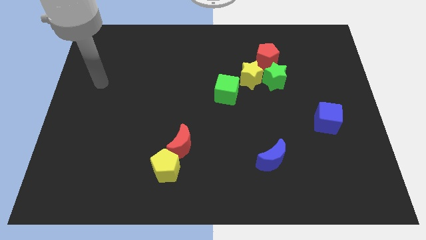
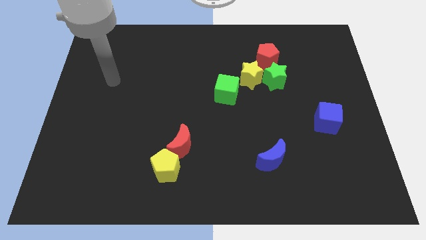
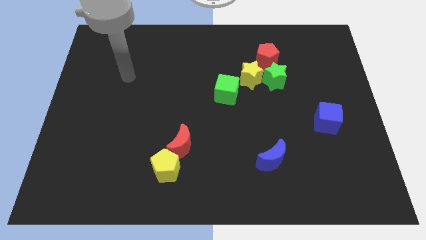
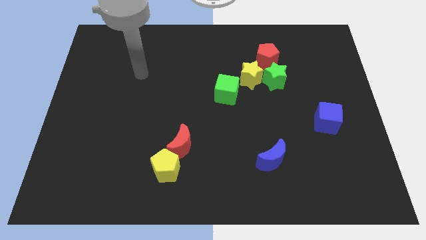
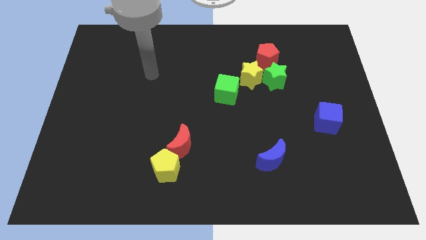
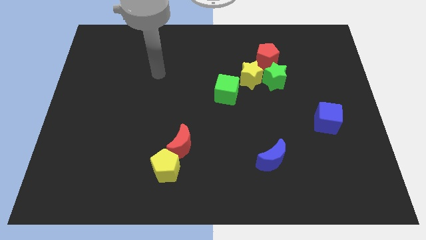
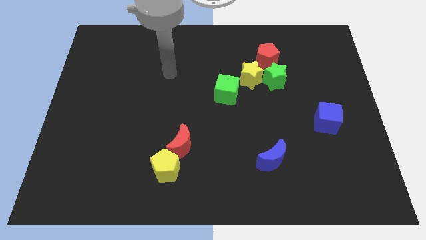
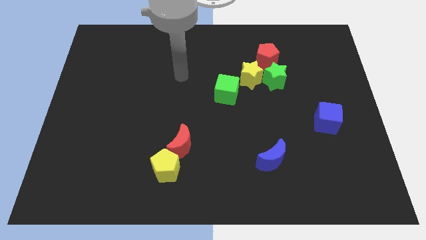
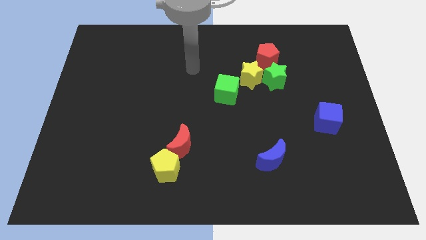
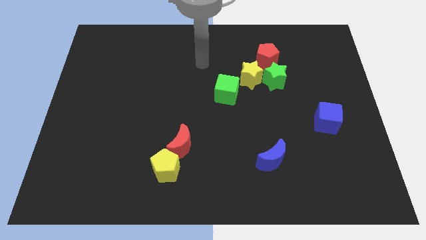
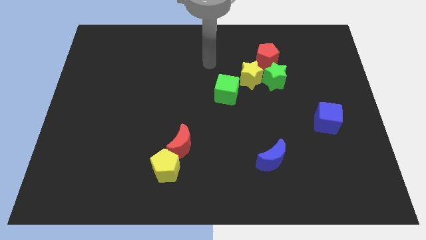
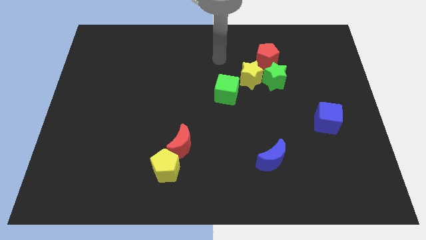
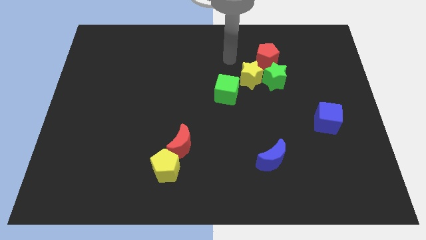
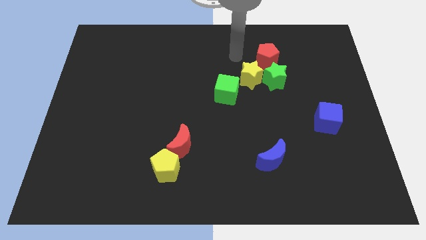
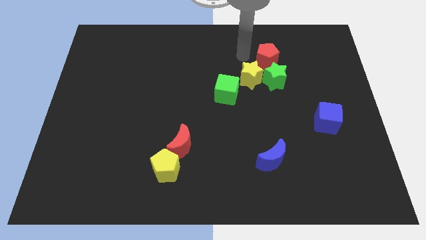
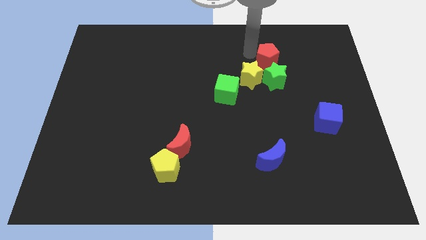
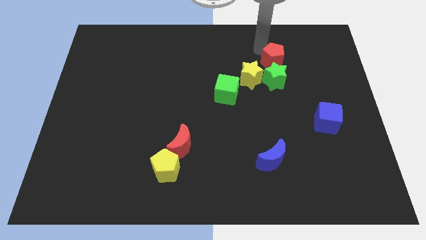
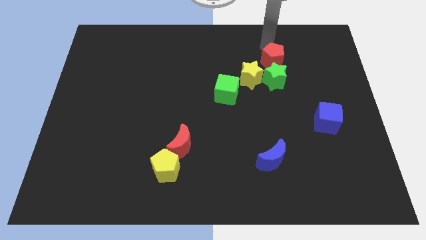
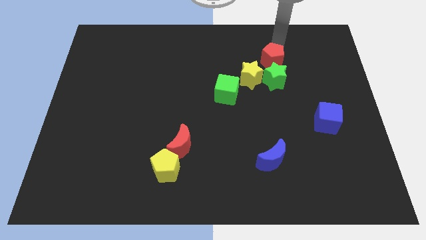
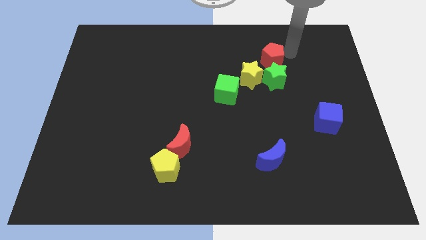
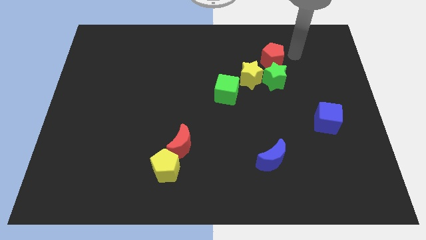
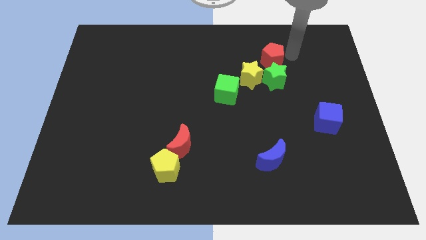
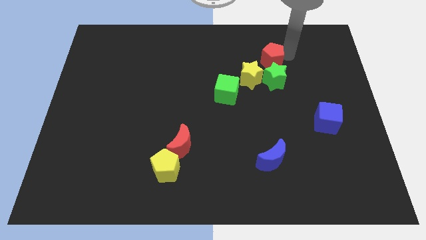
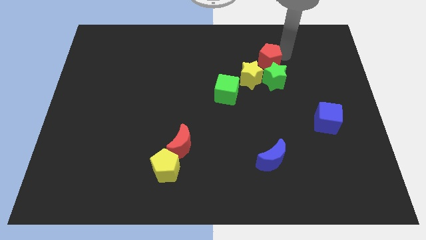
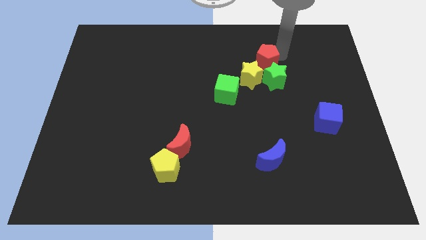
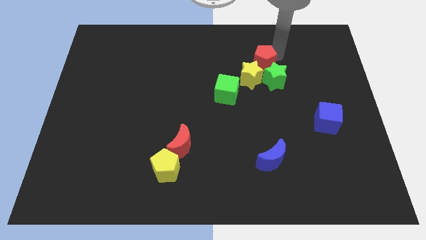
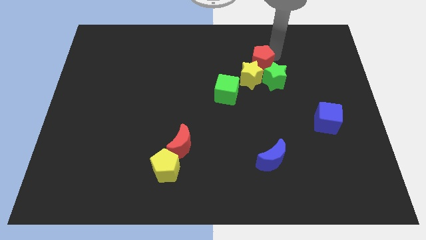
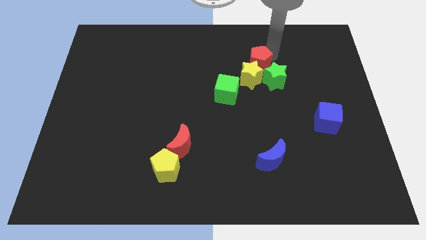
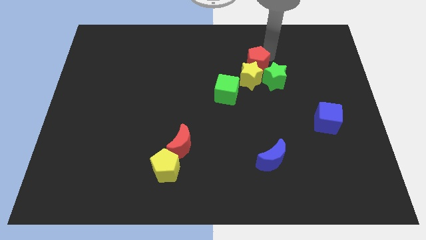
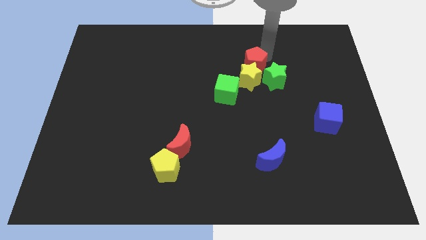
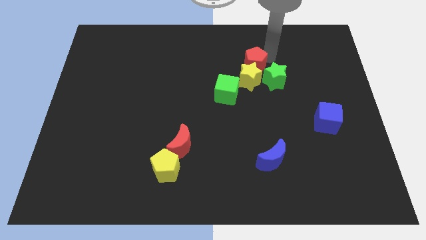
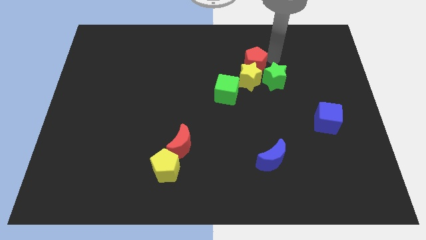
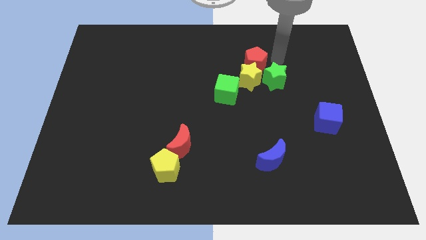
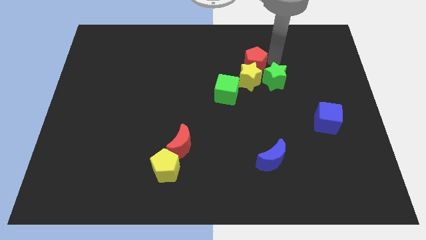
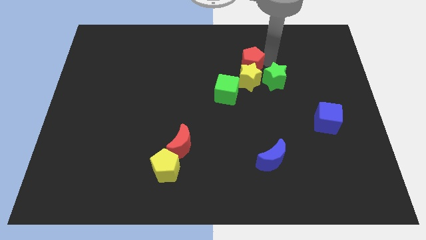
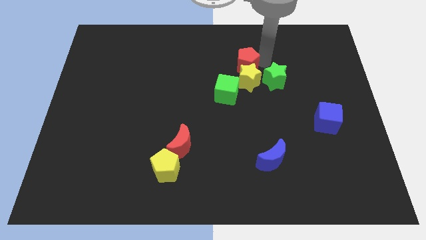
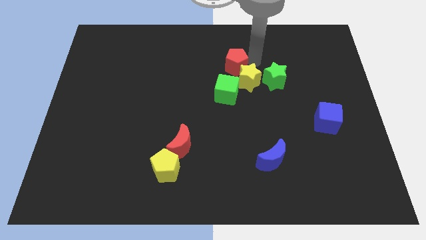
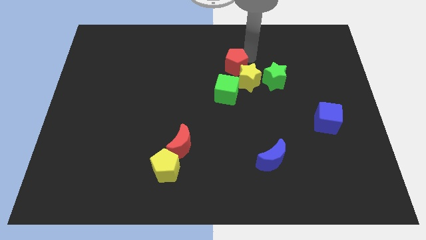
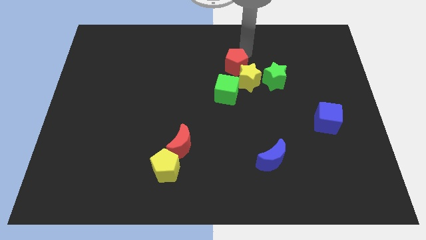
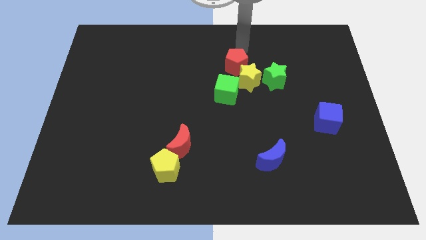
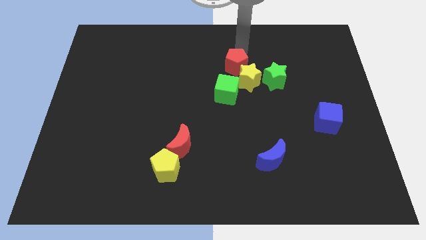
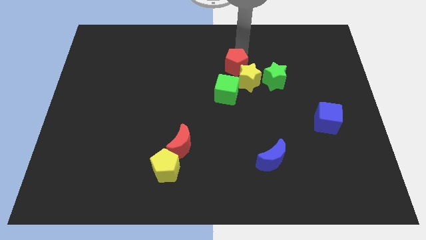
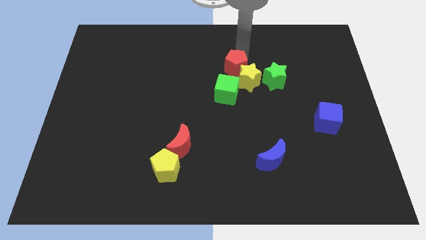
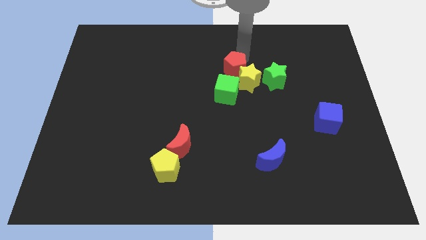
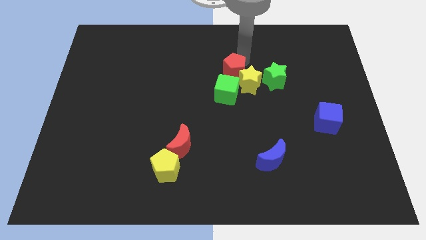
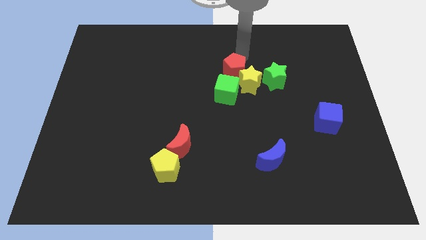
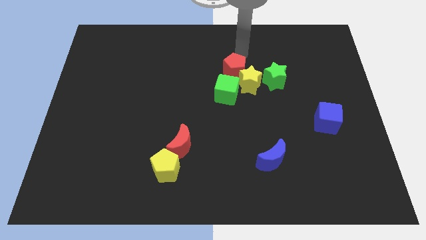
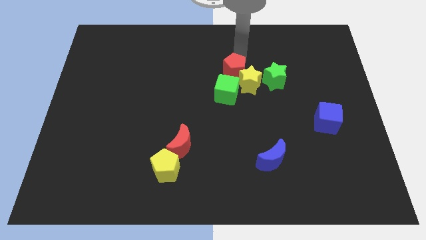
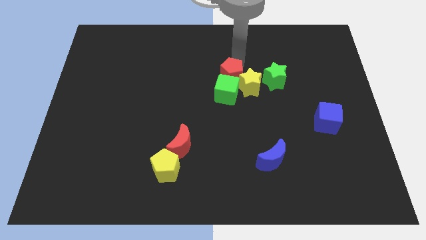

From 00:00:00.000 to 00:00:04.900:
move the red pentagon next to the green cube

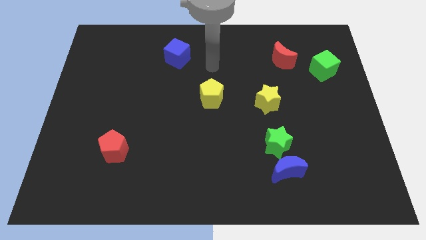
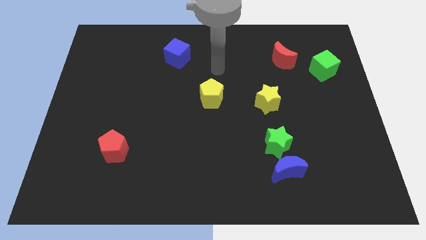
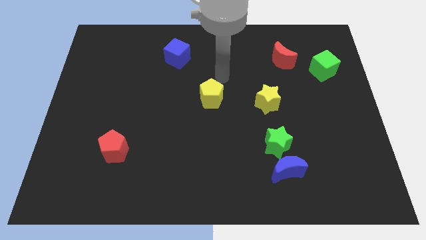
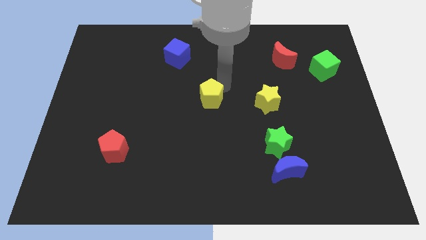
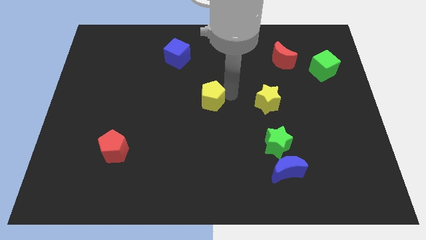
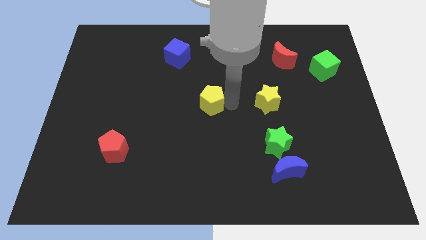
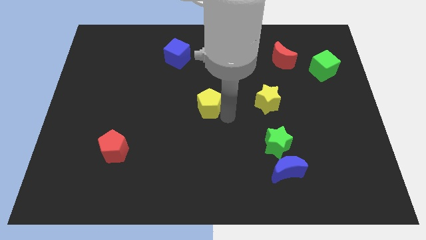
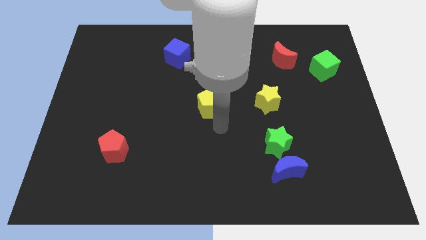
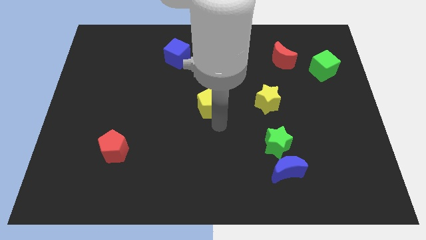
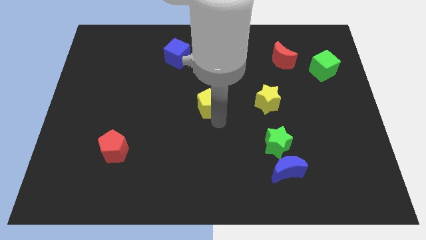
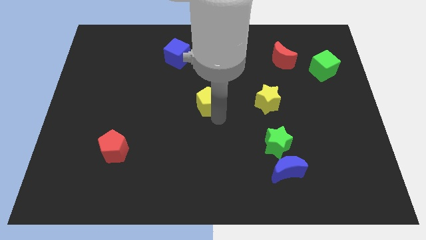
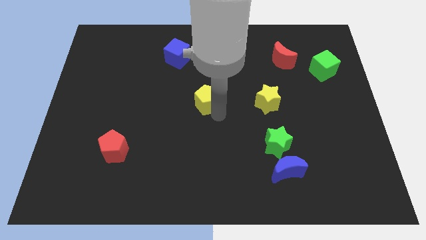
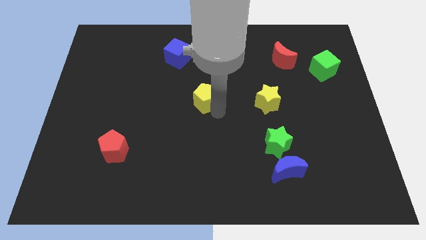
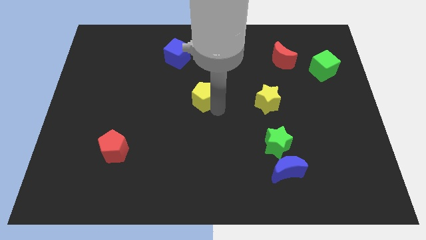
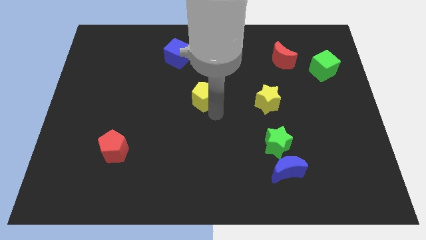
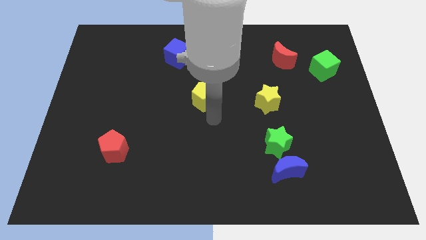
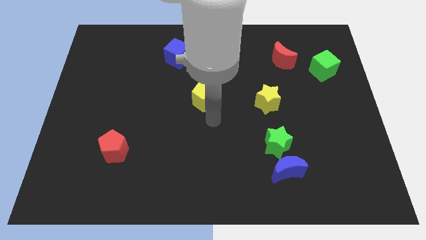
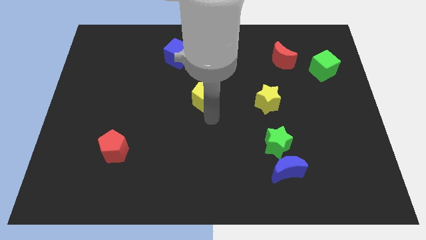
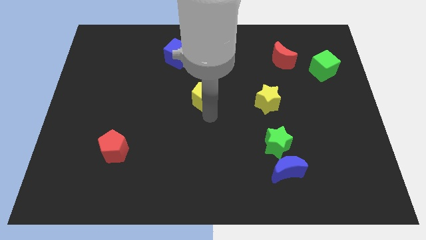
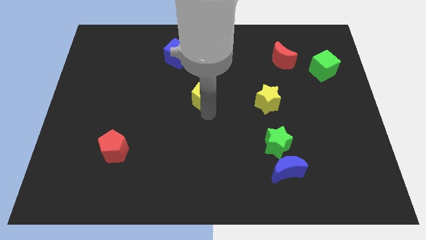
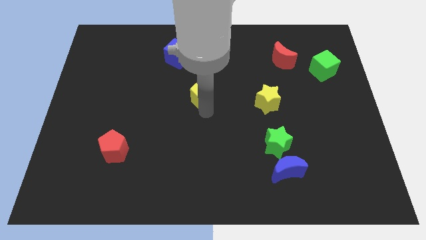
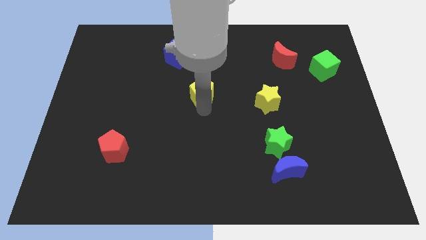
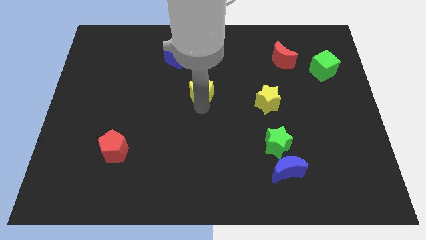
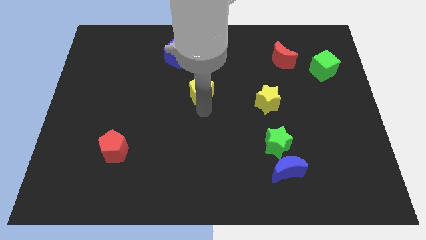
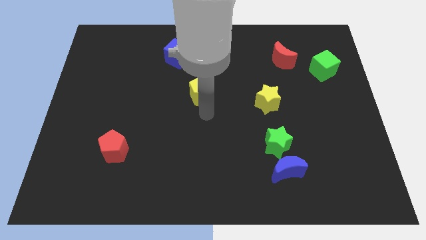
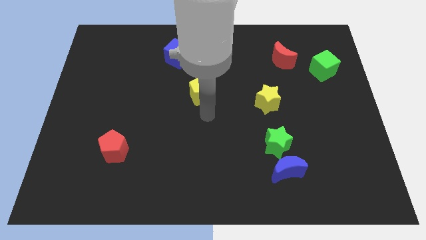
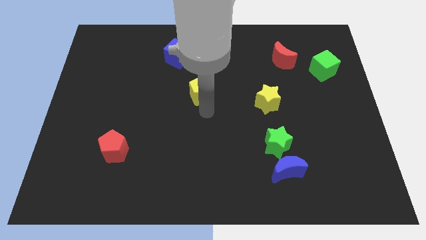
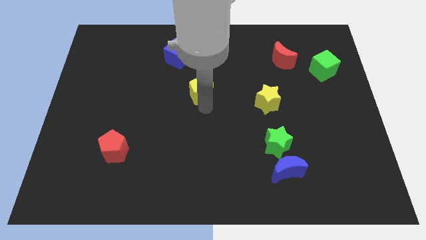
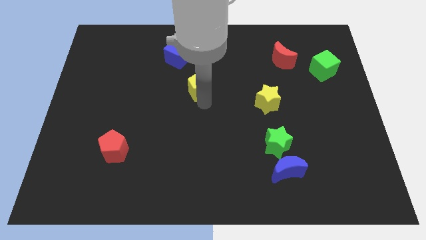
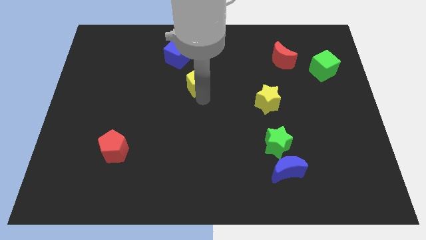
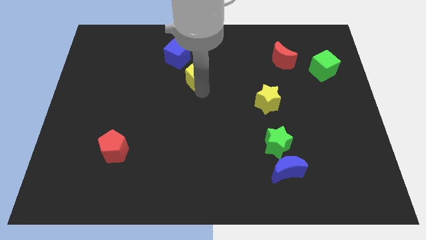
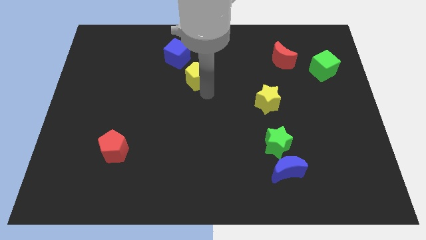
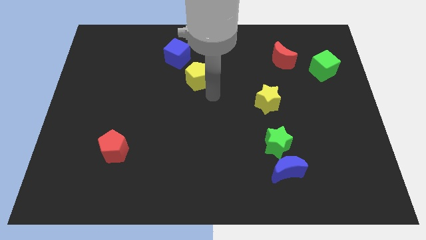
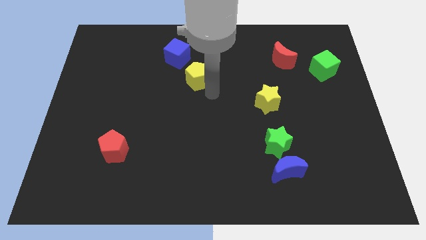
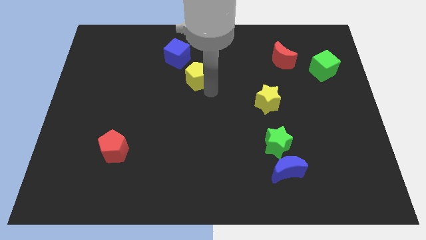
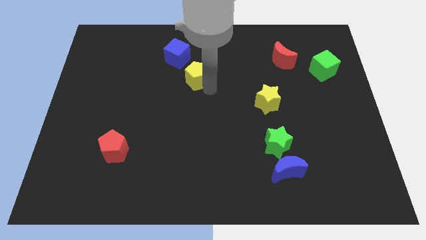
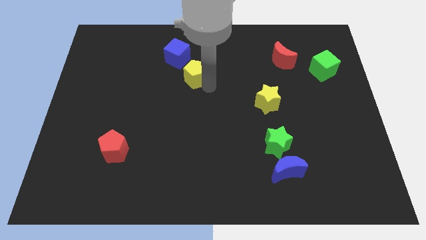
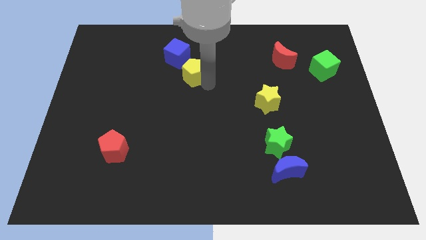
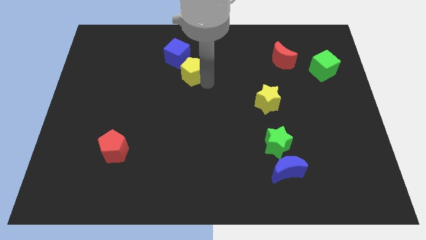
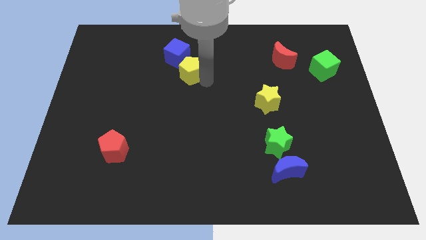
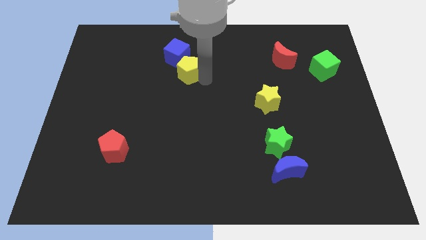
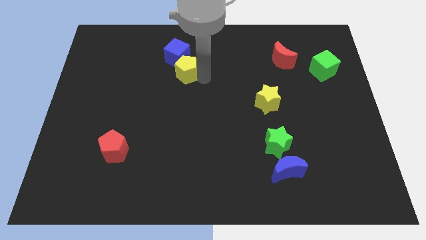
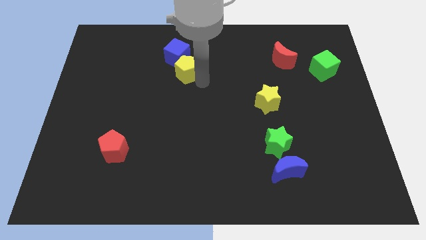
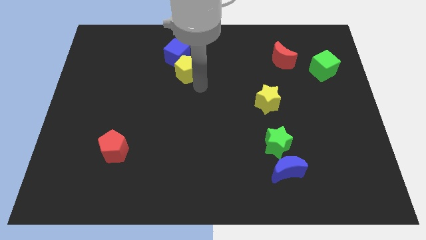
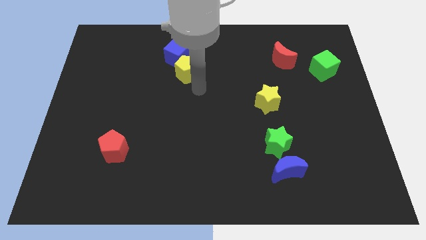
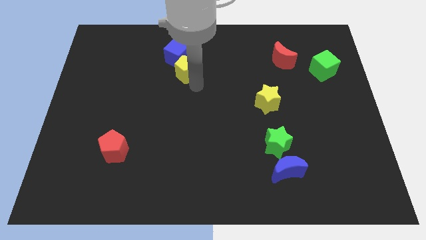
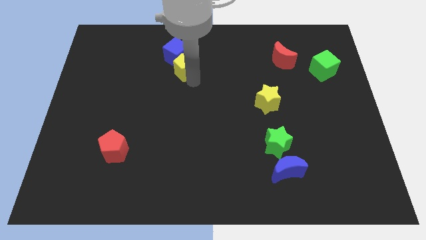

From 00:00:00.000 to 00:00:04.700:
put the yellow pentagon to the blue cube
